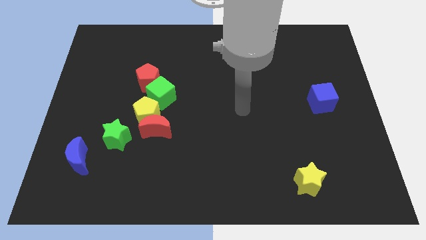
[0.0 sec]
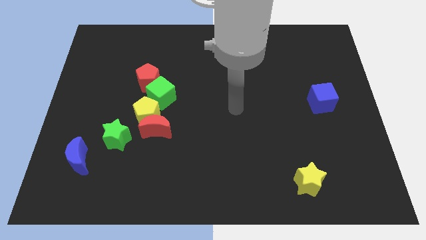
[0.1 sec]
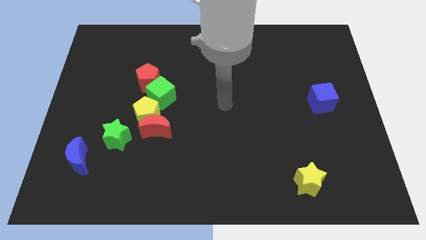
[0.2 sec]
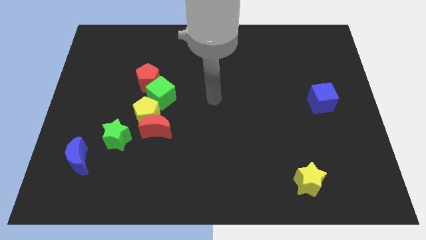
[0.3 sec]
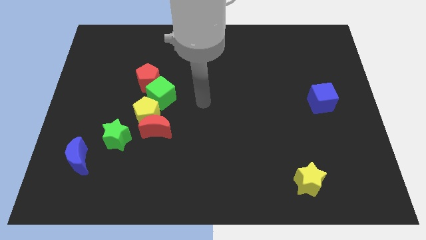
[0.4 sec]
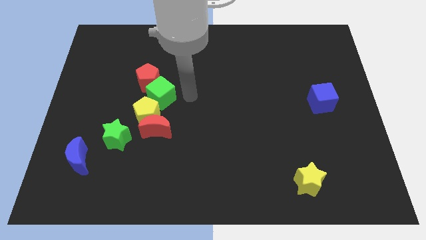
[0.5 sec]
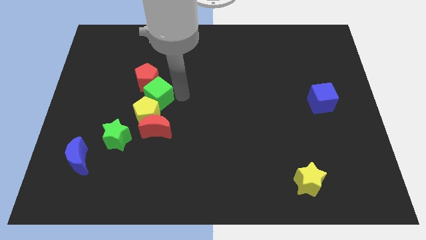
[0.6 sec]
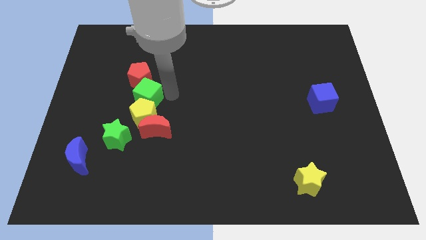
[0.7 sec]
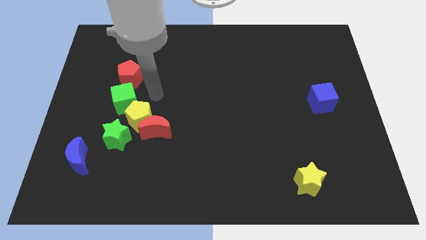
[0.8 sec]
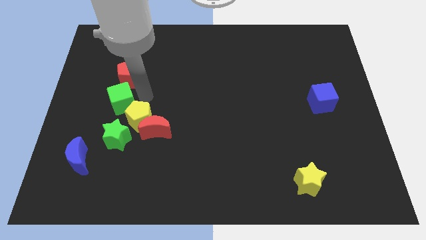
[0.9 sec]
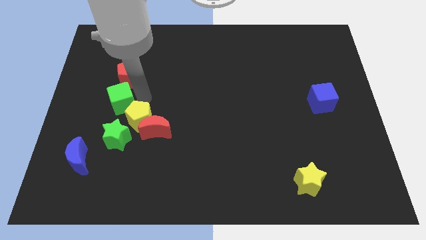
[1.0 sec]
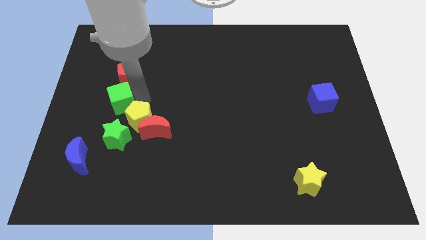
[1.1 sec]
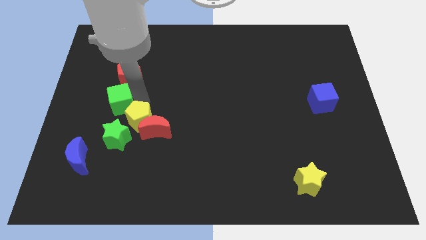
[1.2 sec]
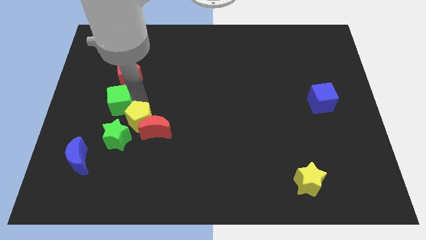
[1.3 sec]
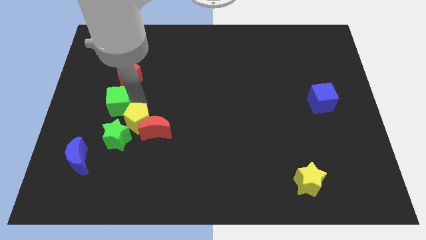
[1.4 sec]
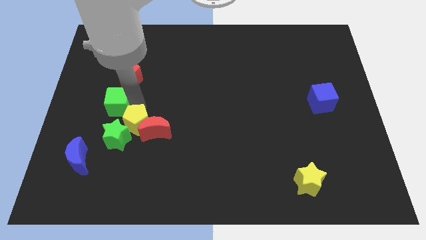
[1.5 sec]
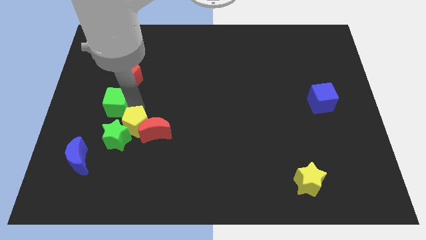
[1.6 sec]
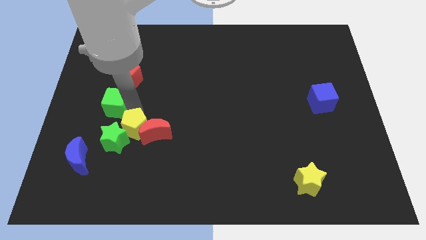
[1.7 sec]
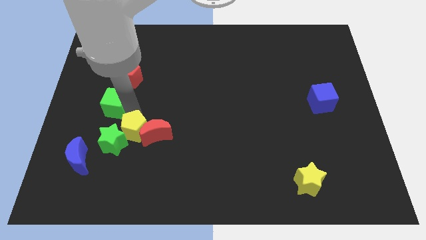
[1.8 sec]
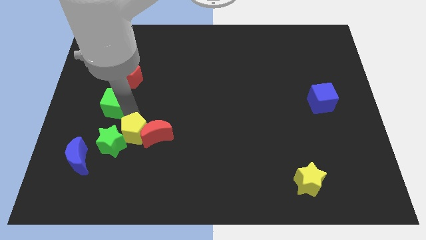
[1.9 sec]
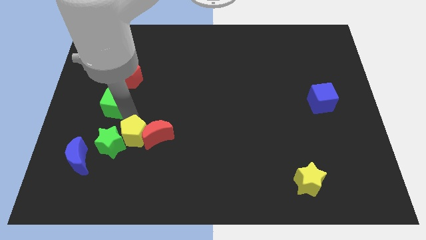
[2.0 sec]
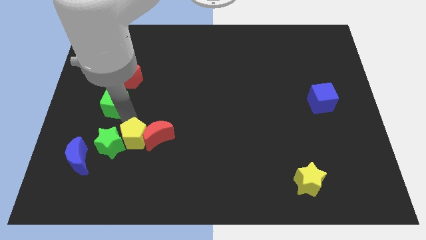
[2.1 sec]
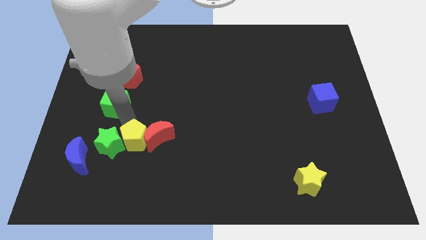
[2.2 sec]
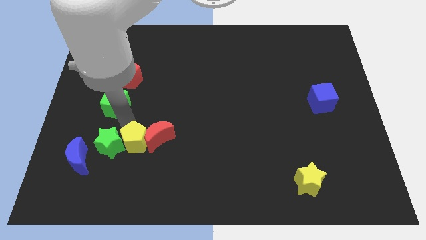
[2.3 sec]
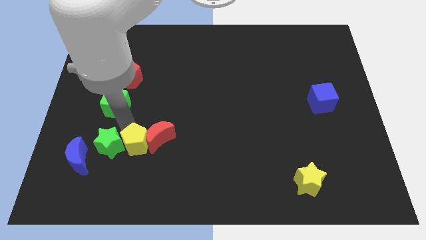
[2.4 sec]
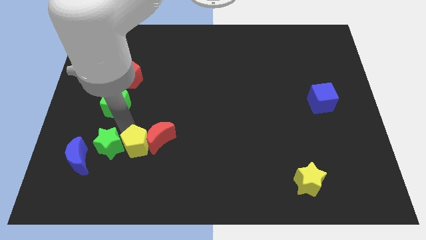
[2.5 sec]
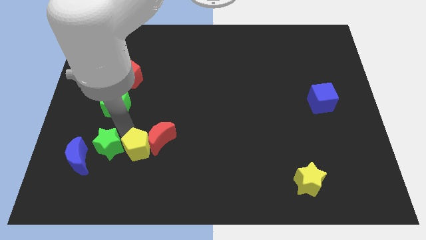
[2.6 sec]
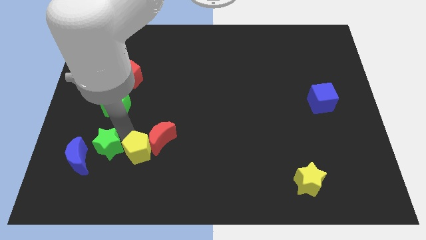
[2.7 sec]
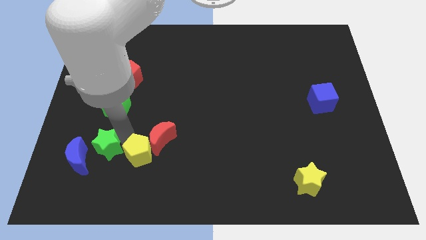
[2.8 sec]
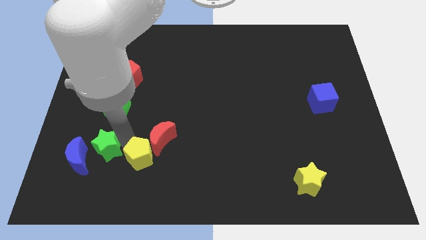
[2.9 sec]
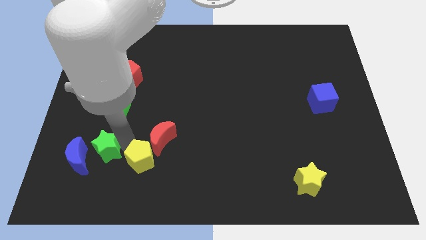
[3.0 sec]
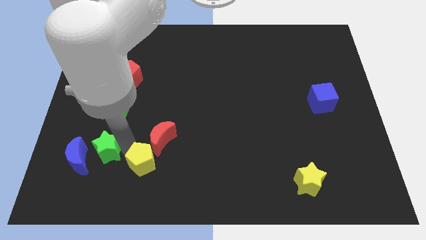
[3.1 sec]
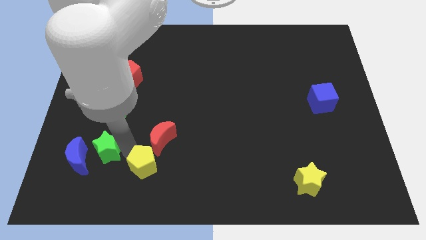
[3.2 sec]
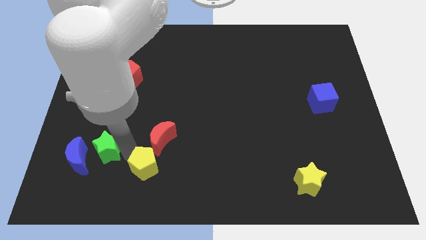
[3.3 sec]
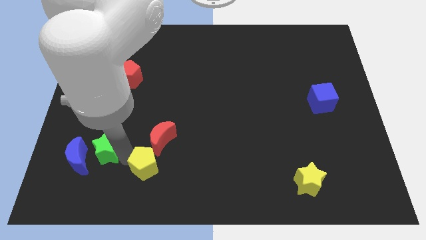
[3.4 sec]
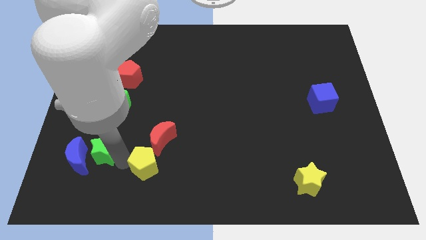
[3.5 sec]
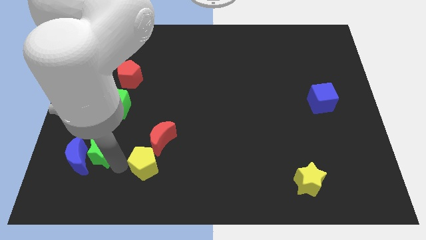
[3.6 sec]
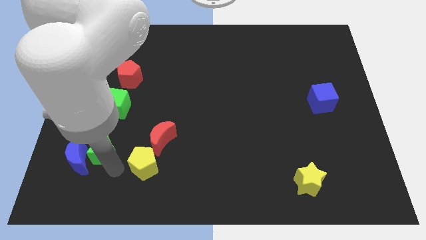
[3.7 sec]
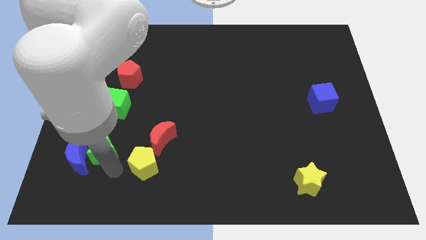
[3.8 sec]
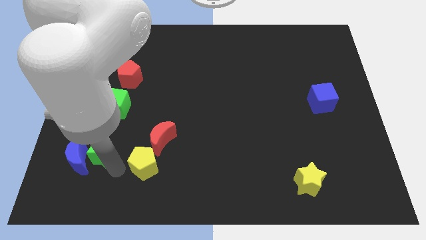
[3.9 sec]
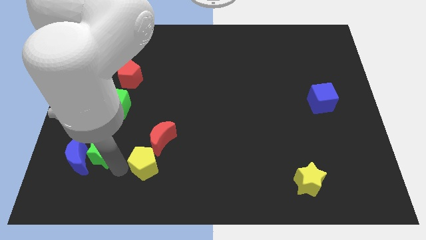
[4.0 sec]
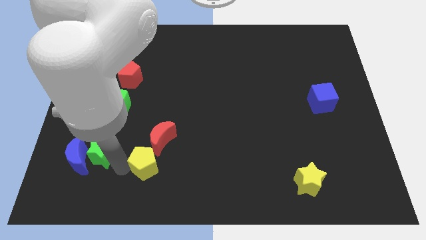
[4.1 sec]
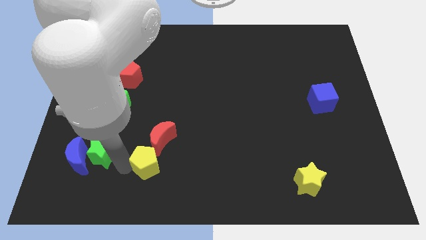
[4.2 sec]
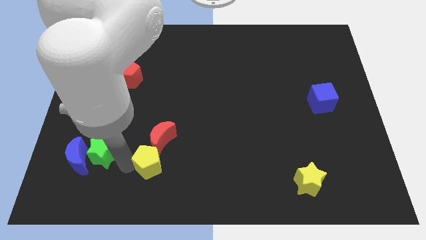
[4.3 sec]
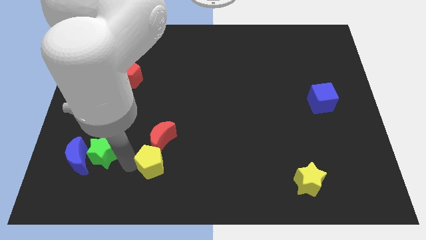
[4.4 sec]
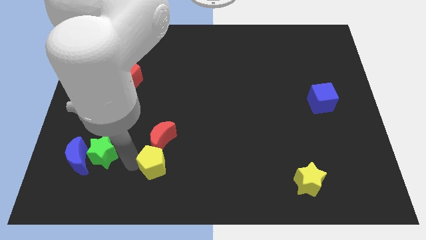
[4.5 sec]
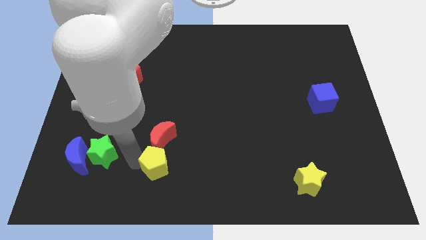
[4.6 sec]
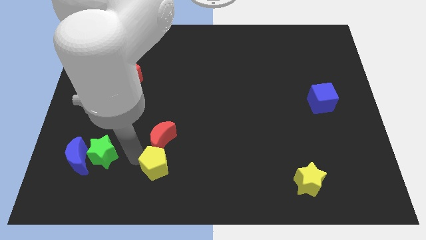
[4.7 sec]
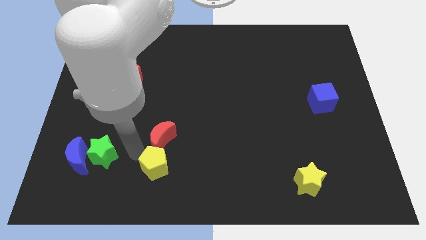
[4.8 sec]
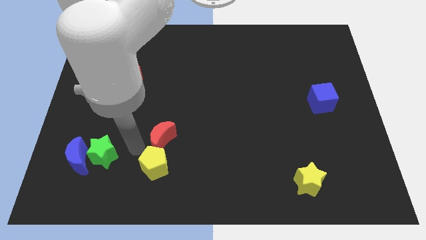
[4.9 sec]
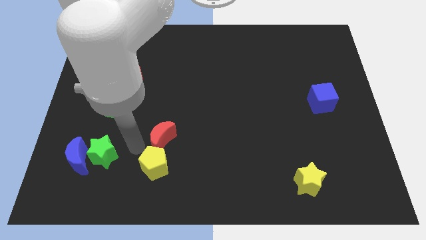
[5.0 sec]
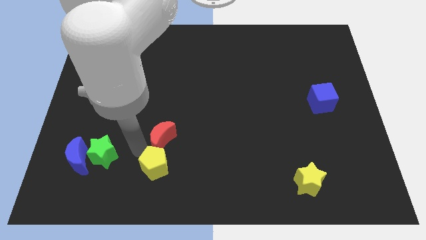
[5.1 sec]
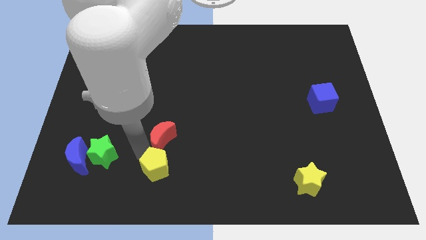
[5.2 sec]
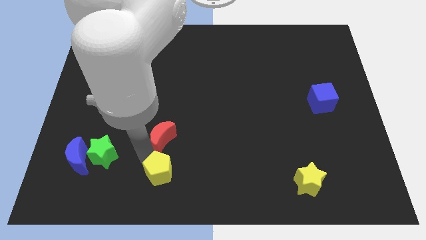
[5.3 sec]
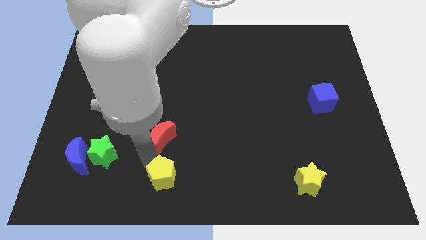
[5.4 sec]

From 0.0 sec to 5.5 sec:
slide the yellow pentagon to the bottom side

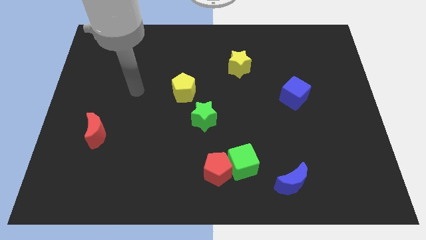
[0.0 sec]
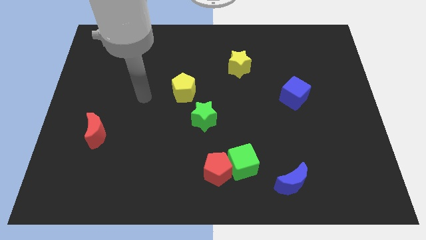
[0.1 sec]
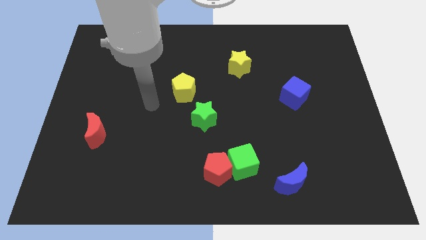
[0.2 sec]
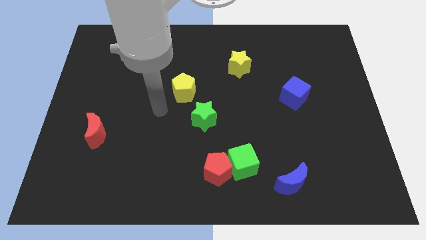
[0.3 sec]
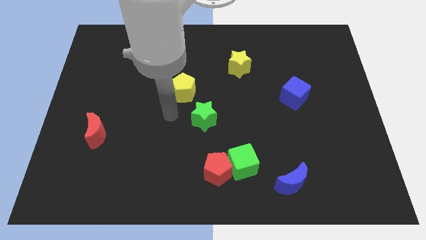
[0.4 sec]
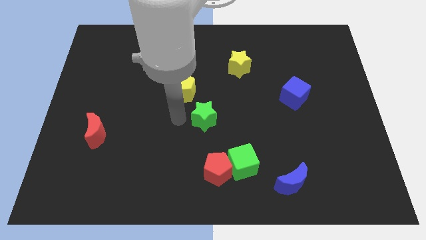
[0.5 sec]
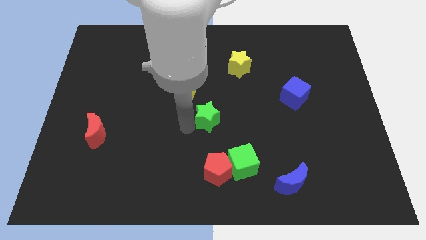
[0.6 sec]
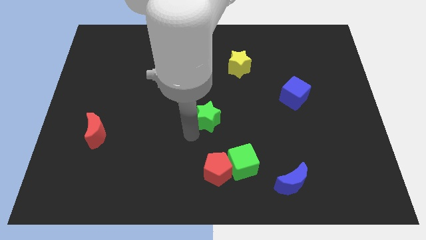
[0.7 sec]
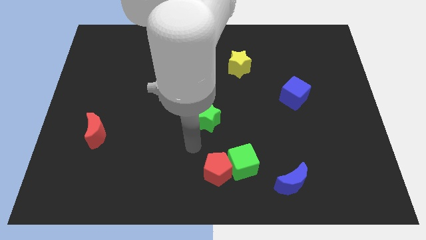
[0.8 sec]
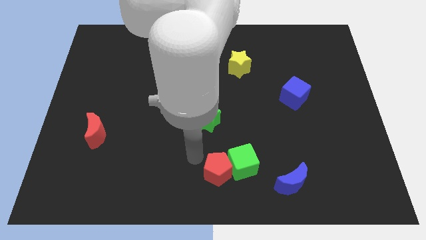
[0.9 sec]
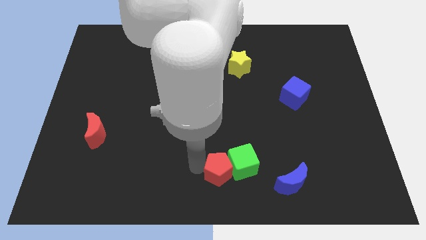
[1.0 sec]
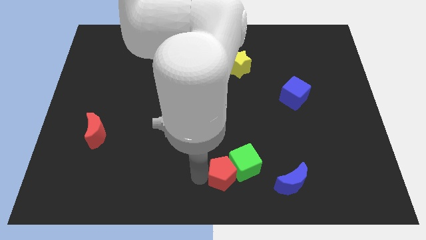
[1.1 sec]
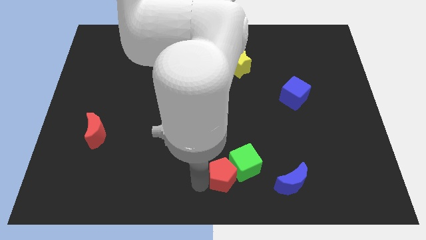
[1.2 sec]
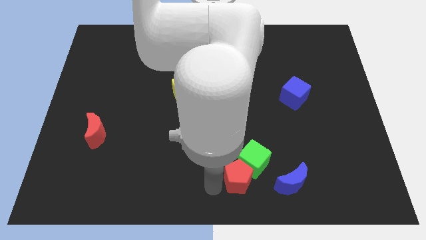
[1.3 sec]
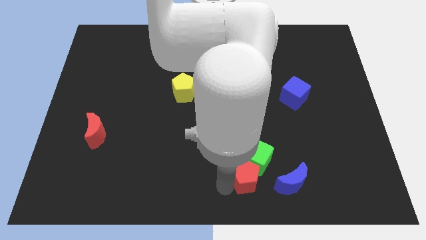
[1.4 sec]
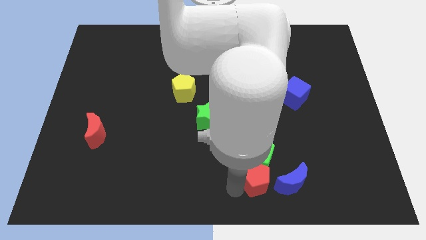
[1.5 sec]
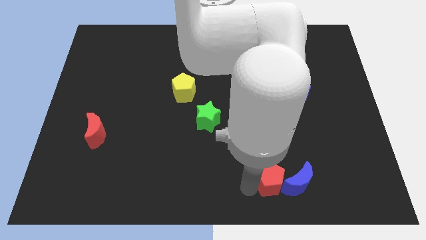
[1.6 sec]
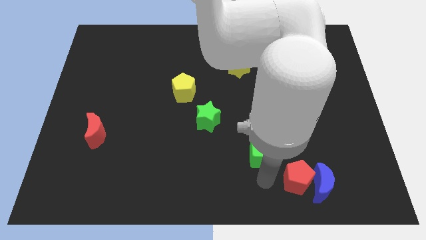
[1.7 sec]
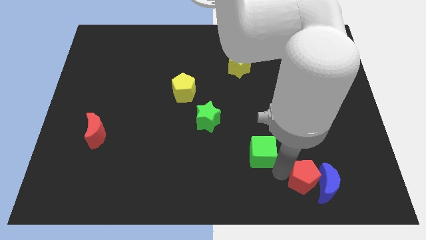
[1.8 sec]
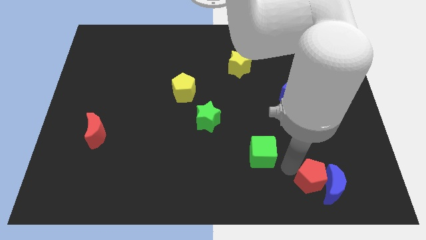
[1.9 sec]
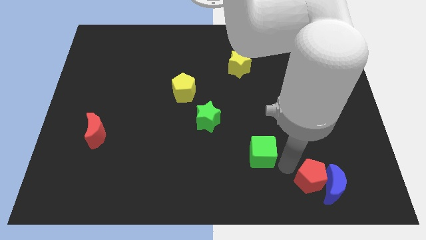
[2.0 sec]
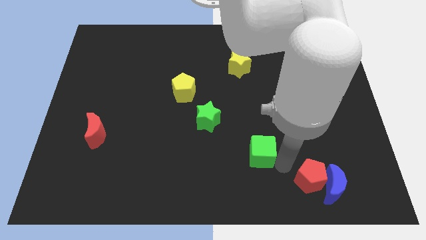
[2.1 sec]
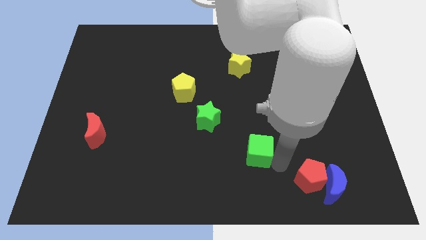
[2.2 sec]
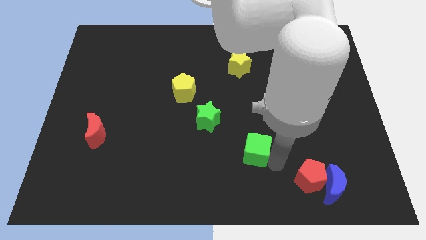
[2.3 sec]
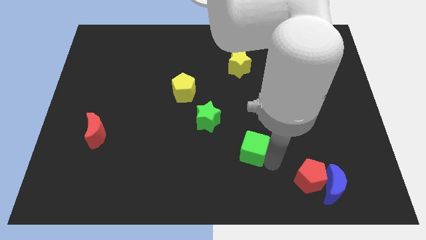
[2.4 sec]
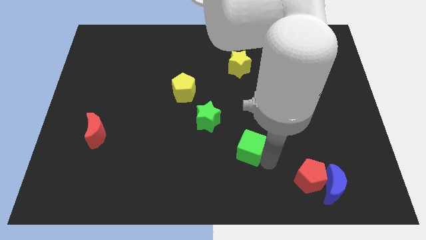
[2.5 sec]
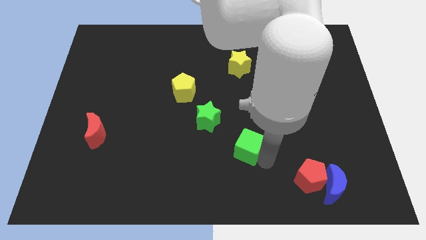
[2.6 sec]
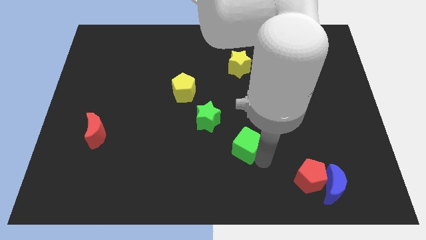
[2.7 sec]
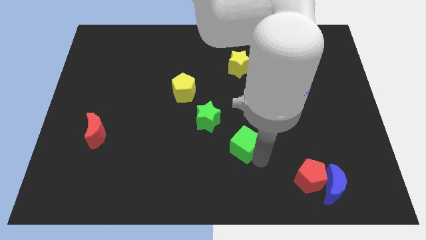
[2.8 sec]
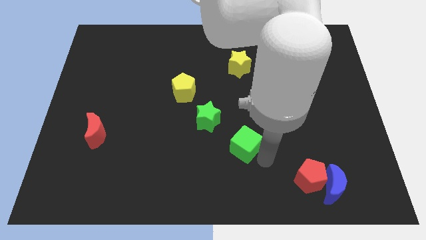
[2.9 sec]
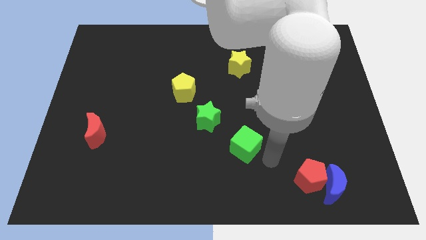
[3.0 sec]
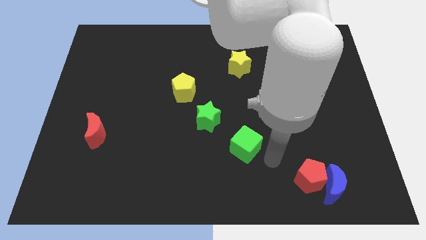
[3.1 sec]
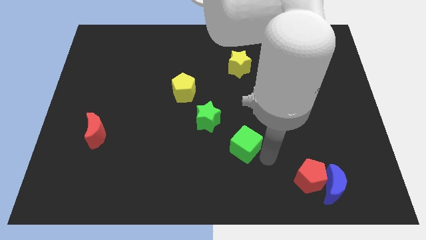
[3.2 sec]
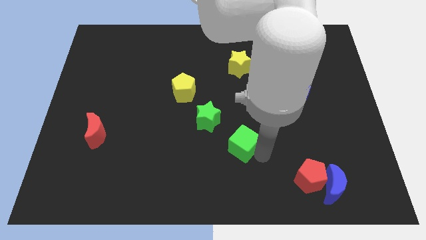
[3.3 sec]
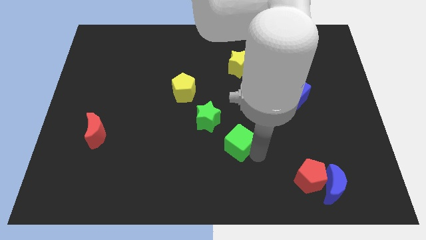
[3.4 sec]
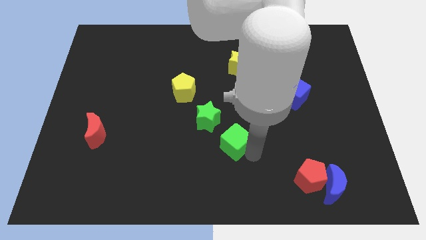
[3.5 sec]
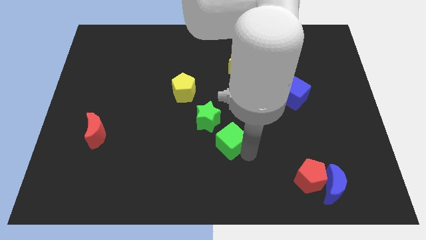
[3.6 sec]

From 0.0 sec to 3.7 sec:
move the green cube to the middle
